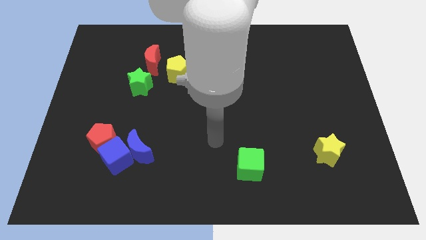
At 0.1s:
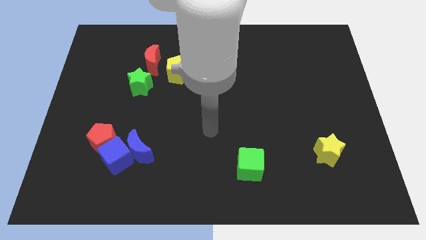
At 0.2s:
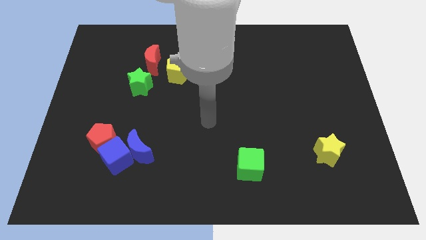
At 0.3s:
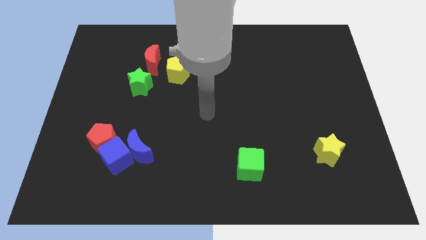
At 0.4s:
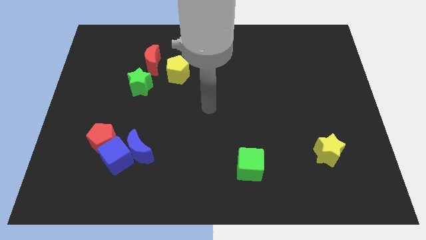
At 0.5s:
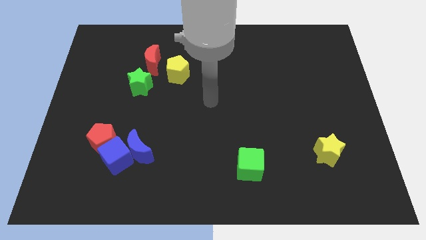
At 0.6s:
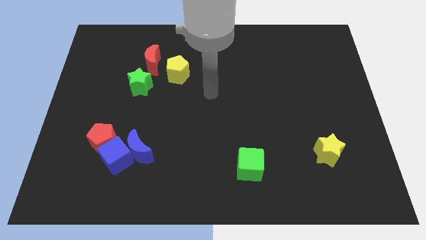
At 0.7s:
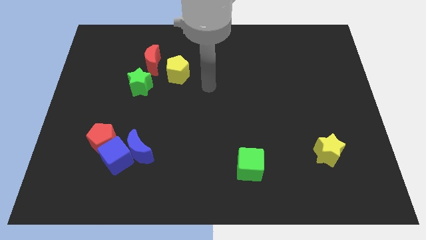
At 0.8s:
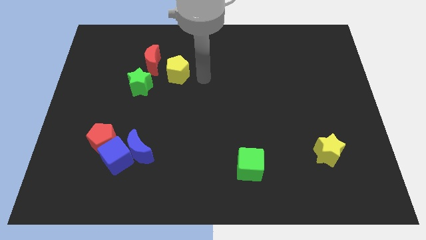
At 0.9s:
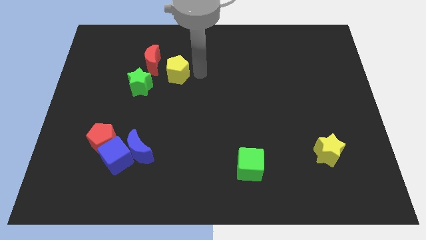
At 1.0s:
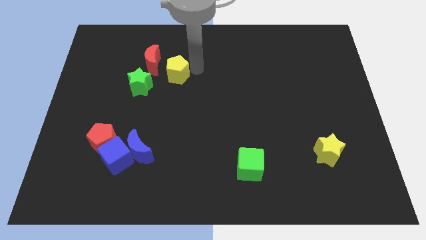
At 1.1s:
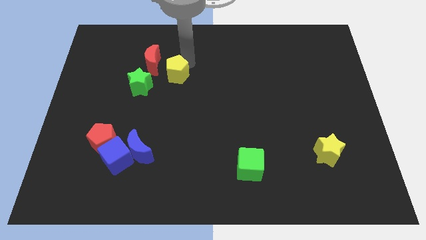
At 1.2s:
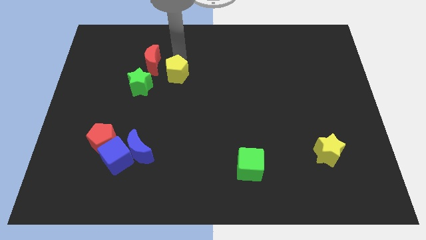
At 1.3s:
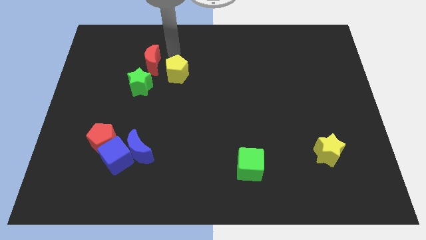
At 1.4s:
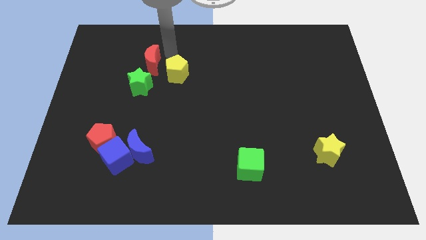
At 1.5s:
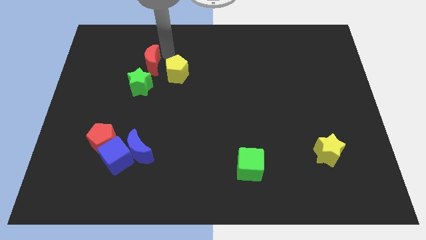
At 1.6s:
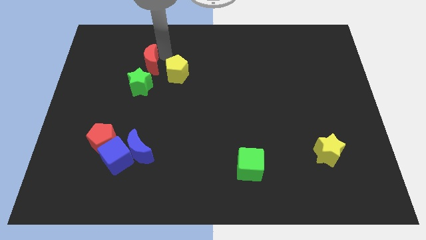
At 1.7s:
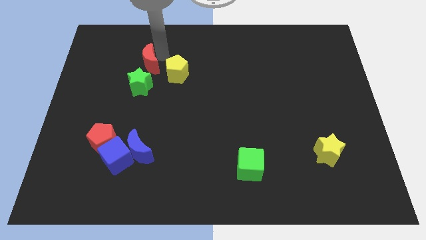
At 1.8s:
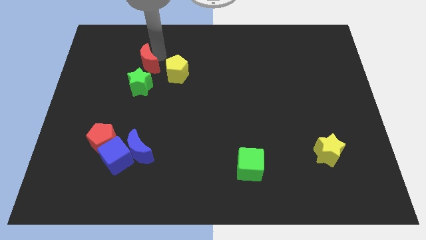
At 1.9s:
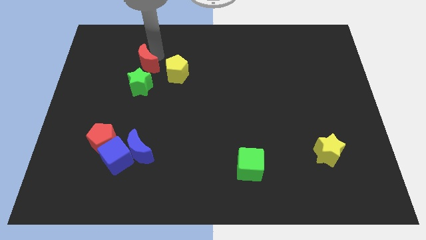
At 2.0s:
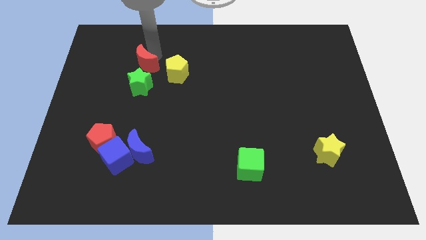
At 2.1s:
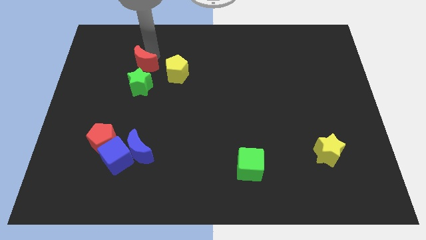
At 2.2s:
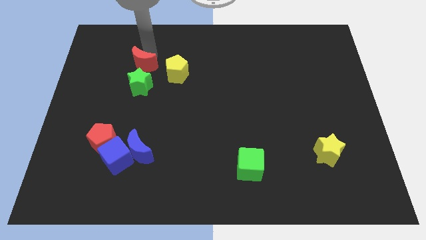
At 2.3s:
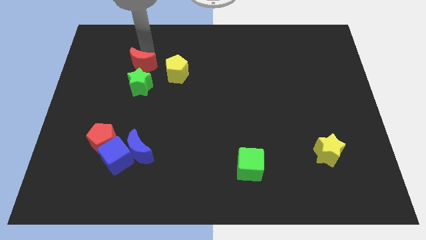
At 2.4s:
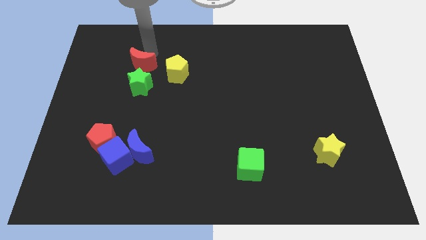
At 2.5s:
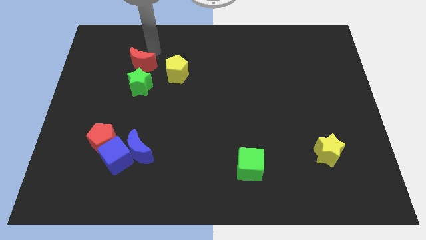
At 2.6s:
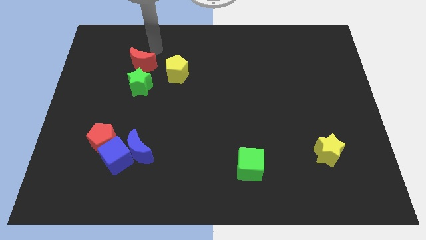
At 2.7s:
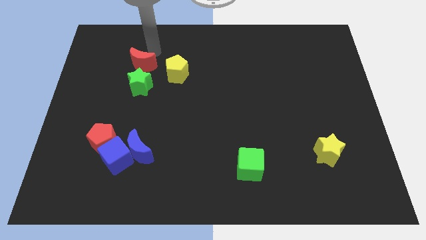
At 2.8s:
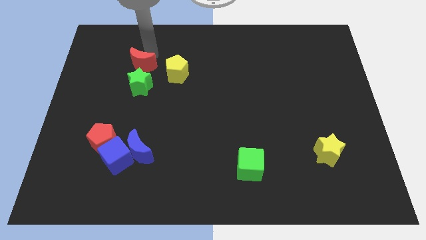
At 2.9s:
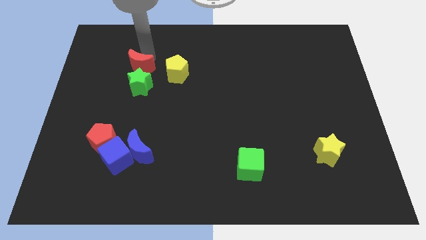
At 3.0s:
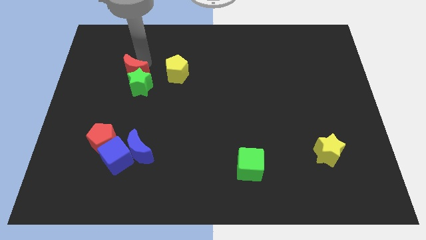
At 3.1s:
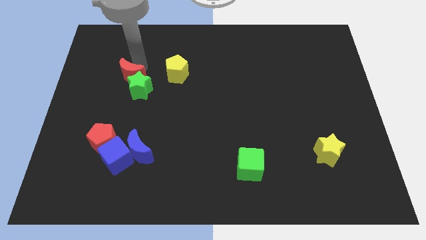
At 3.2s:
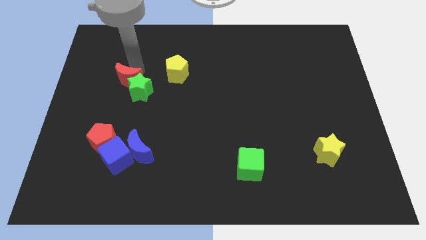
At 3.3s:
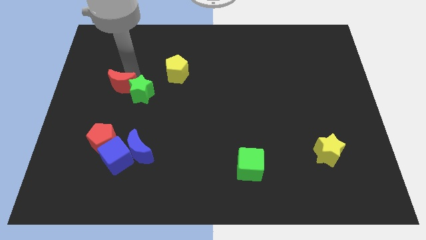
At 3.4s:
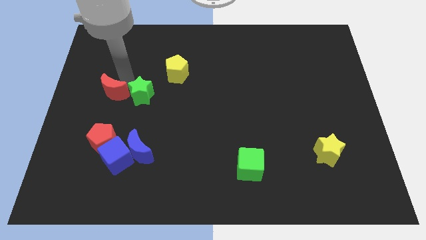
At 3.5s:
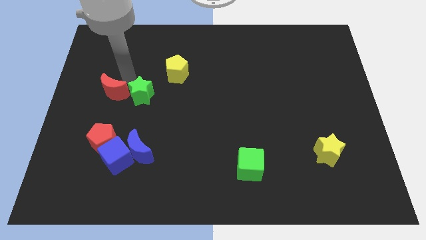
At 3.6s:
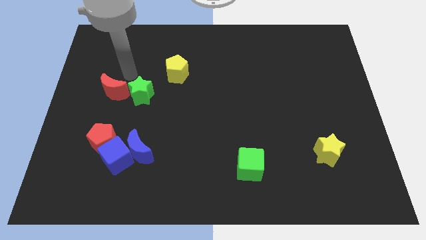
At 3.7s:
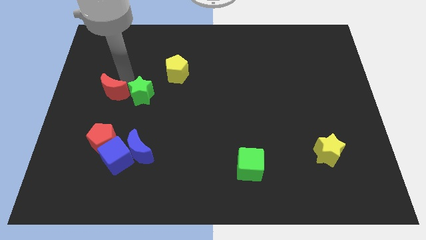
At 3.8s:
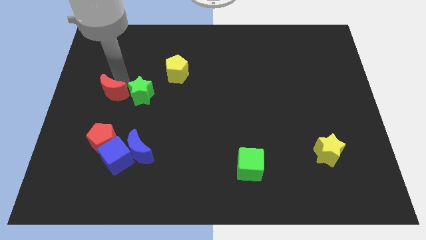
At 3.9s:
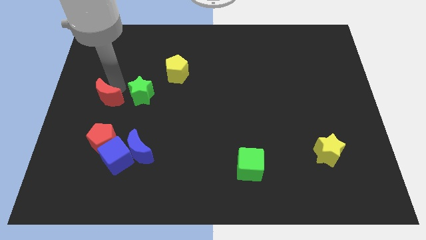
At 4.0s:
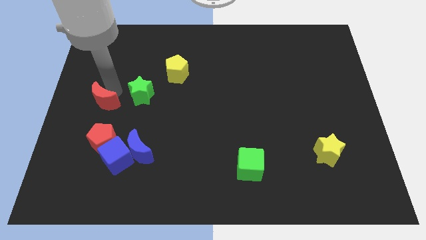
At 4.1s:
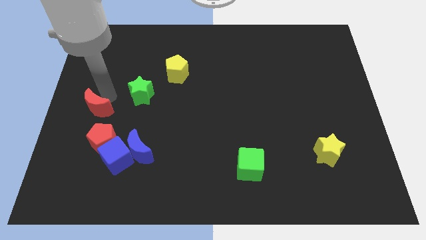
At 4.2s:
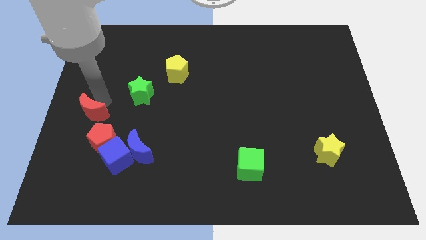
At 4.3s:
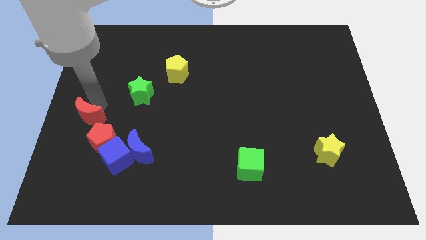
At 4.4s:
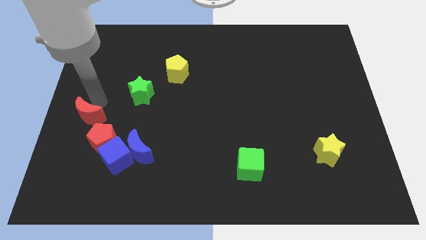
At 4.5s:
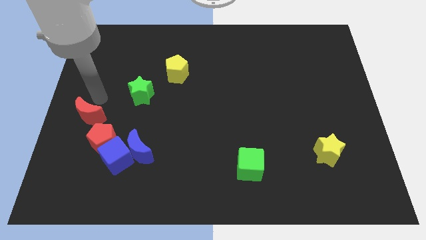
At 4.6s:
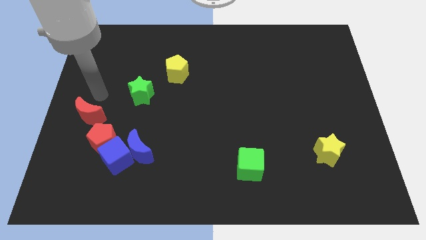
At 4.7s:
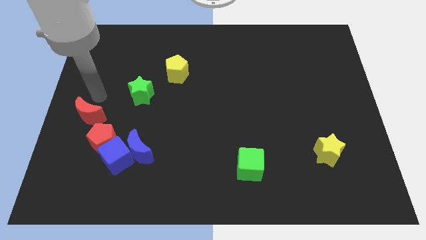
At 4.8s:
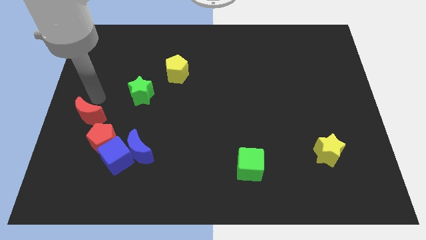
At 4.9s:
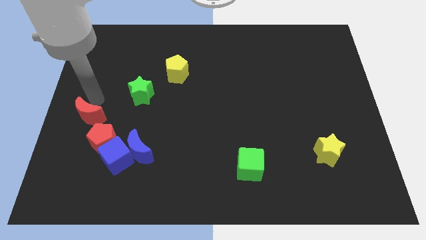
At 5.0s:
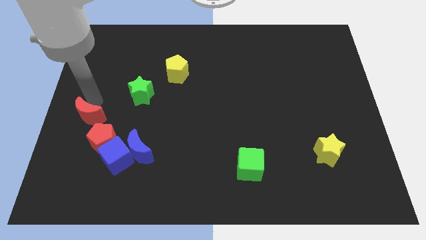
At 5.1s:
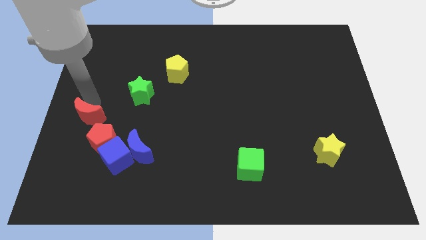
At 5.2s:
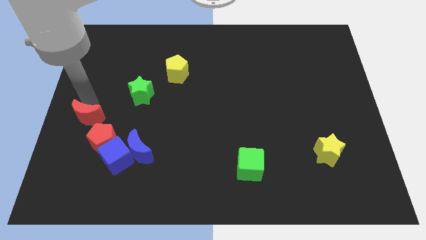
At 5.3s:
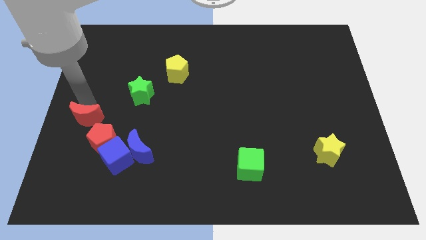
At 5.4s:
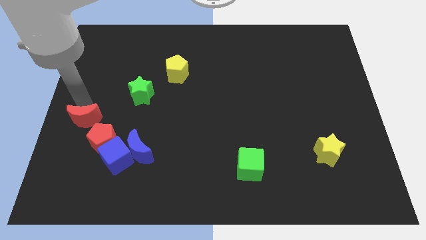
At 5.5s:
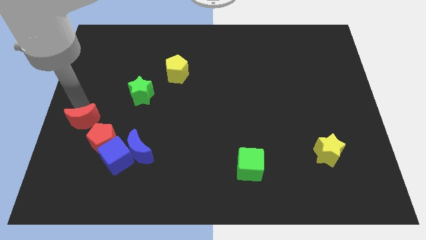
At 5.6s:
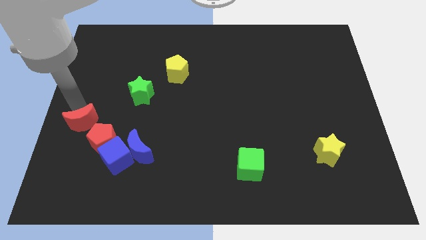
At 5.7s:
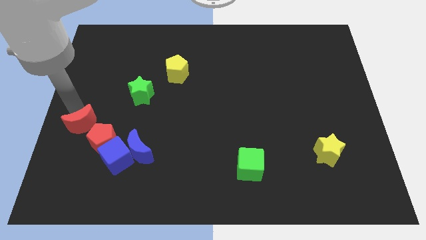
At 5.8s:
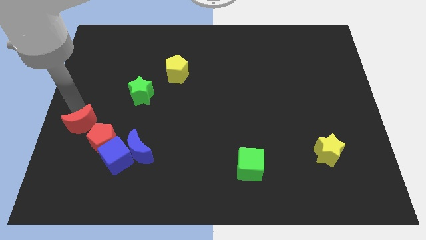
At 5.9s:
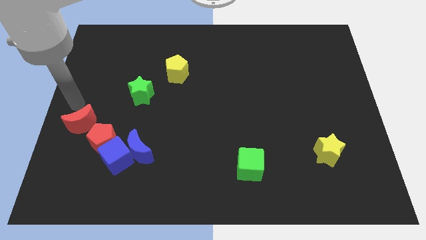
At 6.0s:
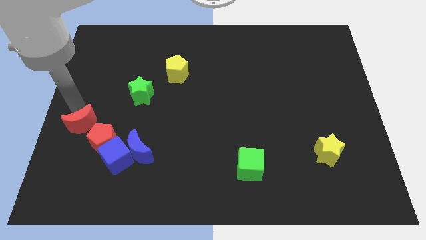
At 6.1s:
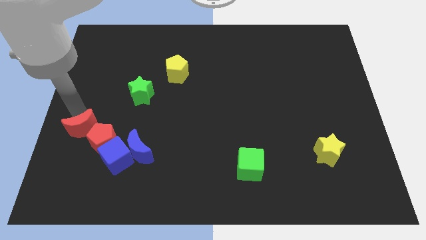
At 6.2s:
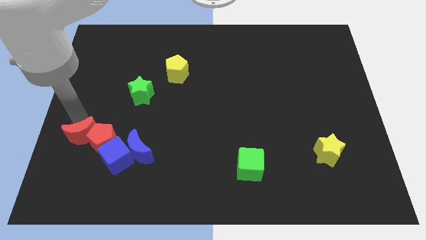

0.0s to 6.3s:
move the red moon just left of the blue moon

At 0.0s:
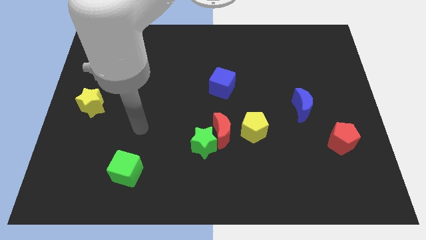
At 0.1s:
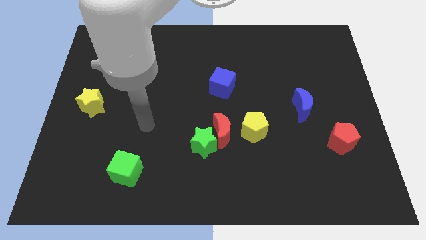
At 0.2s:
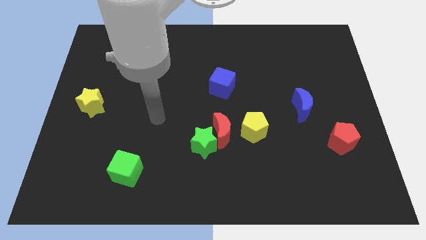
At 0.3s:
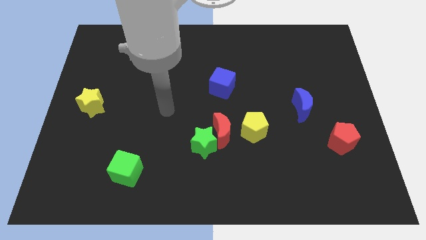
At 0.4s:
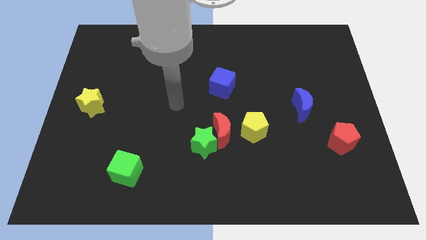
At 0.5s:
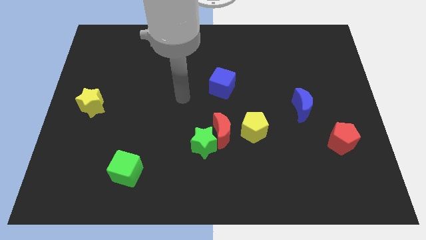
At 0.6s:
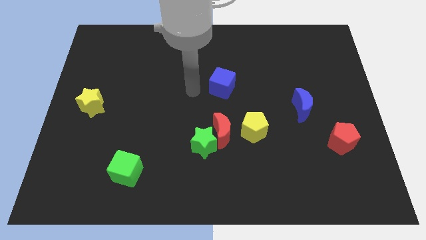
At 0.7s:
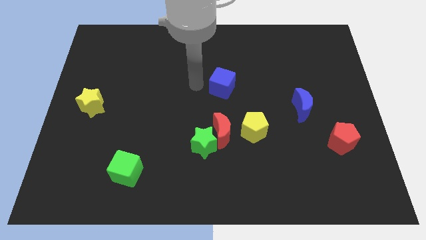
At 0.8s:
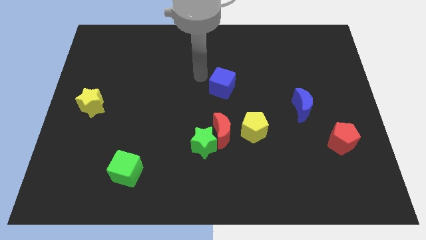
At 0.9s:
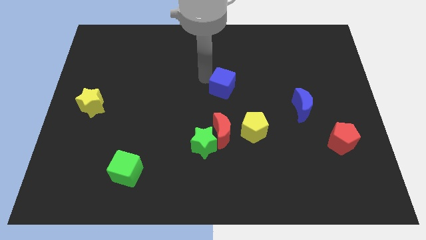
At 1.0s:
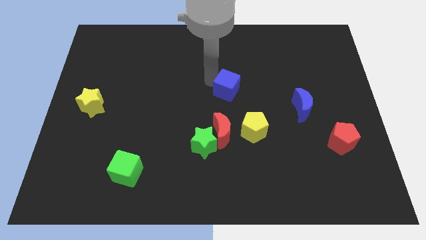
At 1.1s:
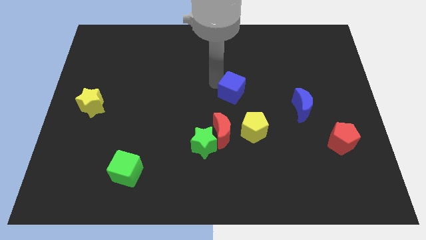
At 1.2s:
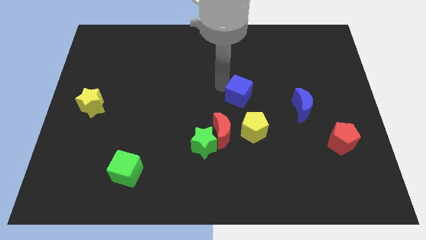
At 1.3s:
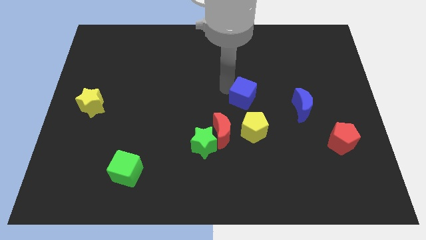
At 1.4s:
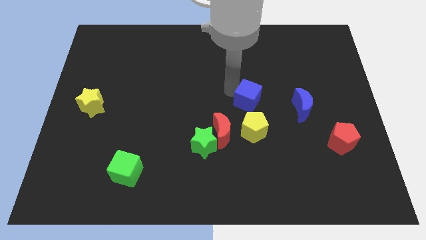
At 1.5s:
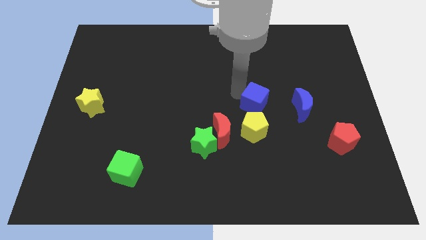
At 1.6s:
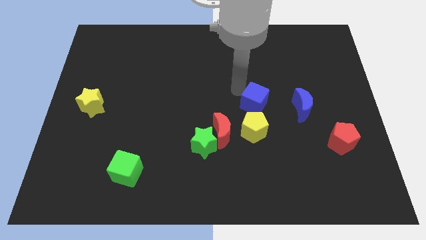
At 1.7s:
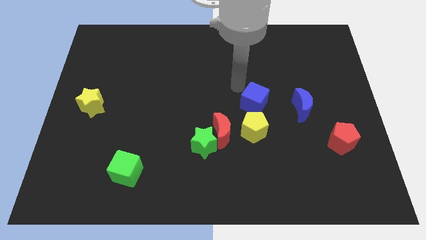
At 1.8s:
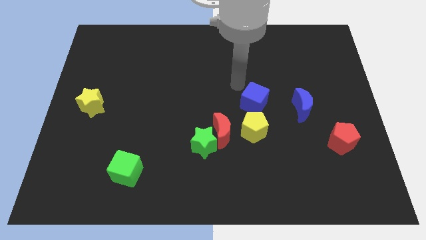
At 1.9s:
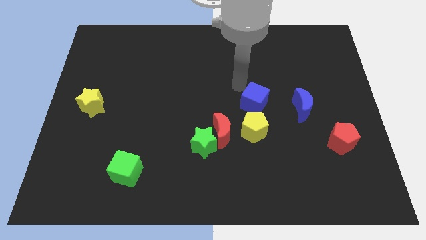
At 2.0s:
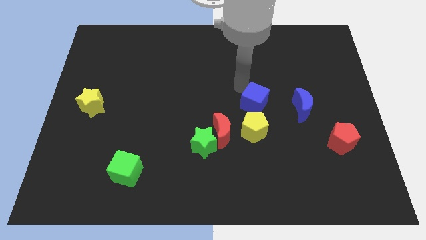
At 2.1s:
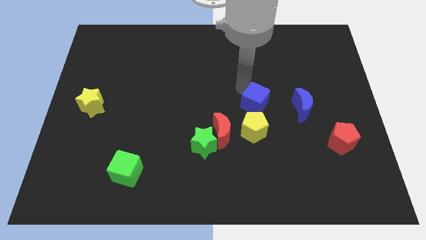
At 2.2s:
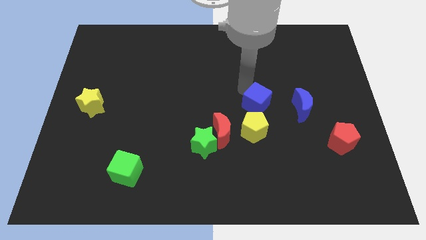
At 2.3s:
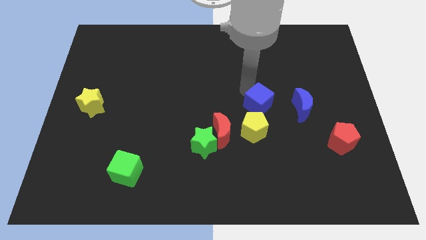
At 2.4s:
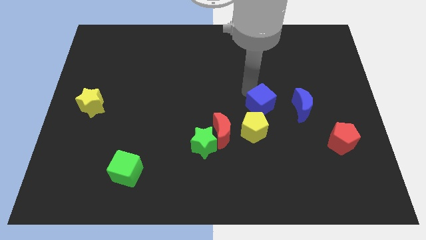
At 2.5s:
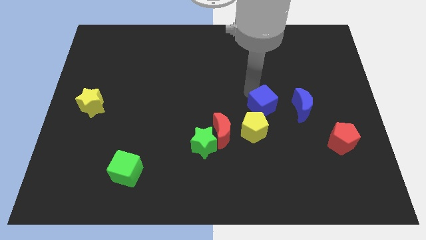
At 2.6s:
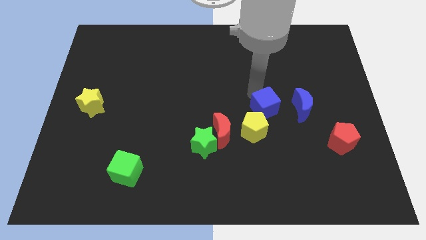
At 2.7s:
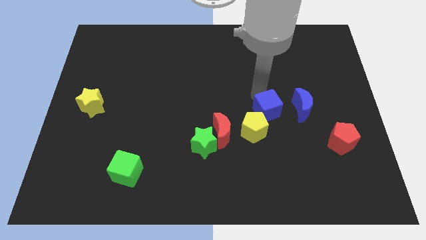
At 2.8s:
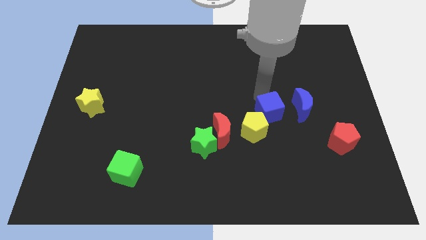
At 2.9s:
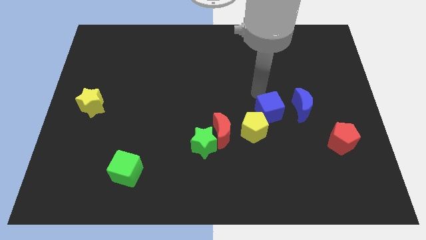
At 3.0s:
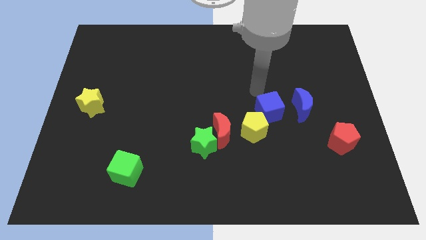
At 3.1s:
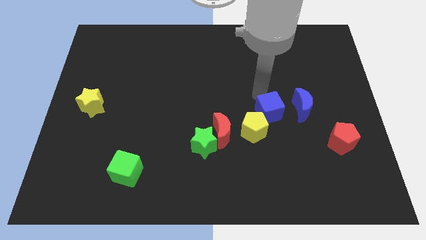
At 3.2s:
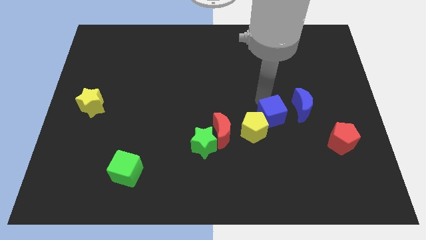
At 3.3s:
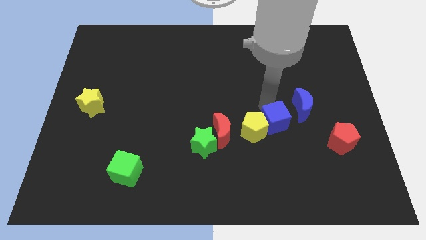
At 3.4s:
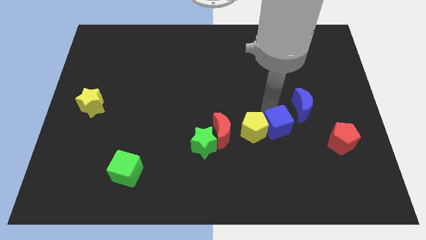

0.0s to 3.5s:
move the blue cube to the bottom right of the yellow pentagon
